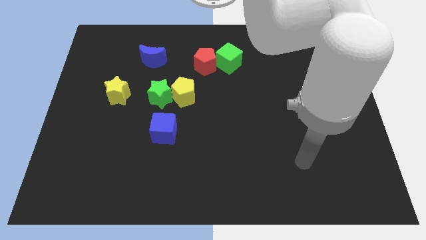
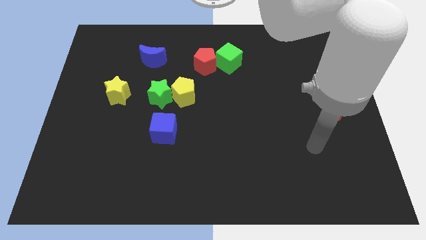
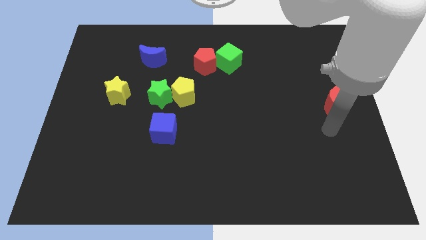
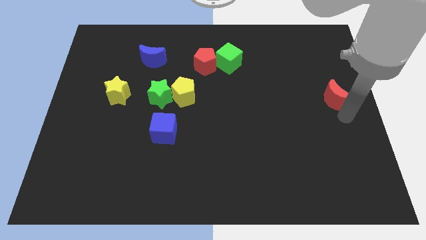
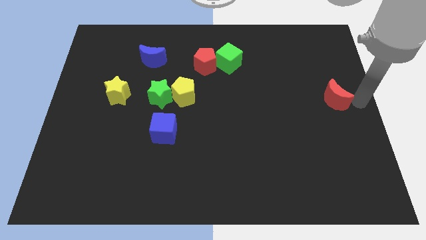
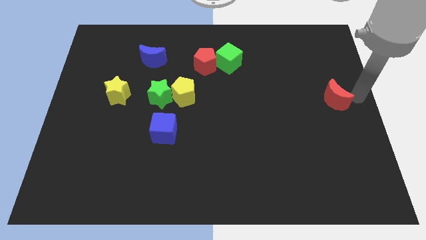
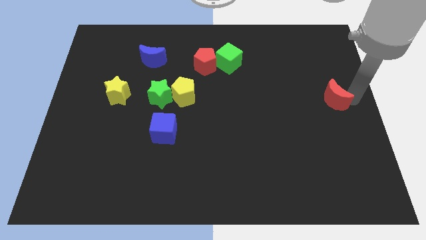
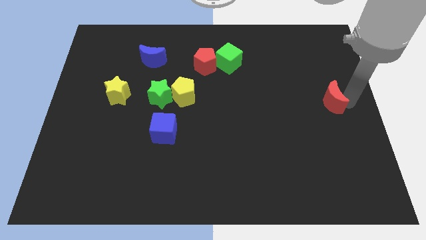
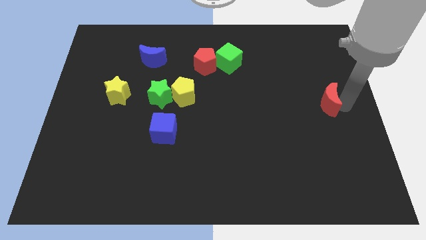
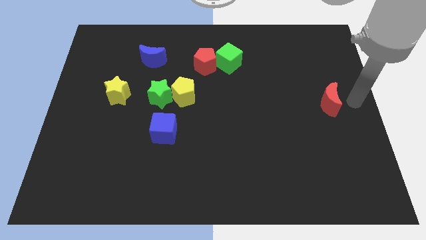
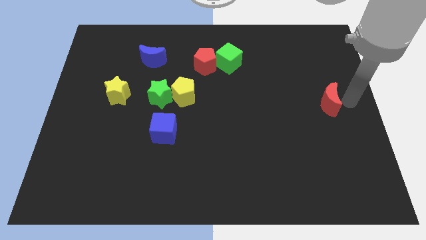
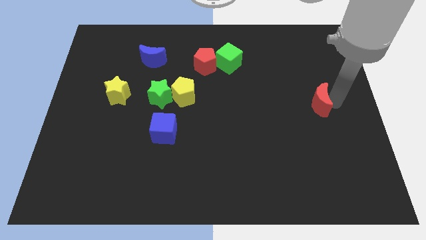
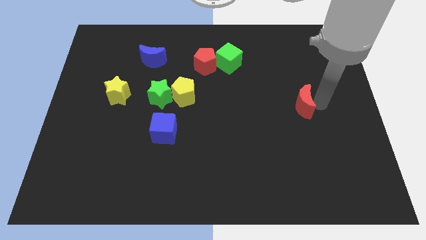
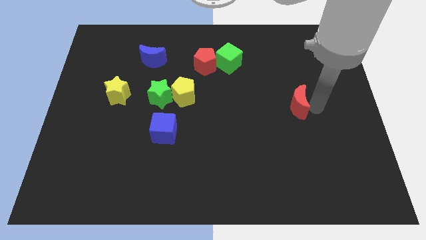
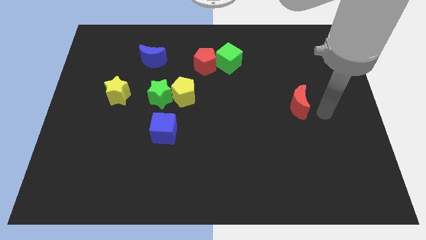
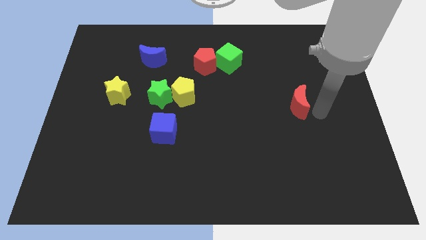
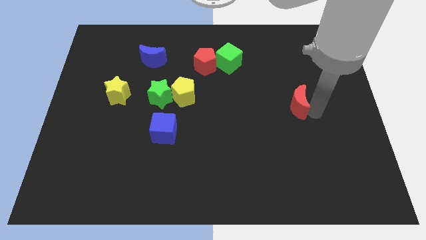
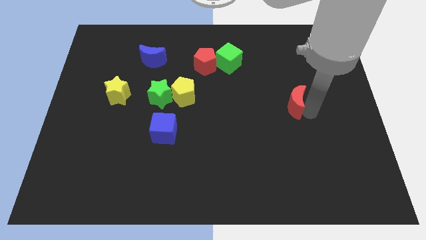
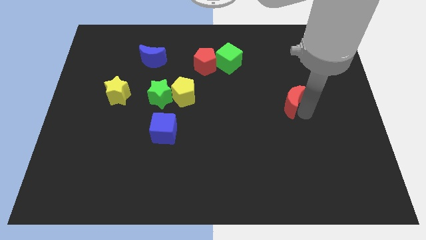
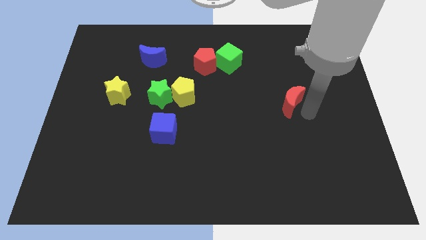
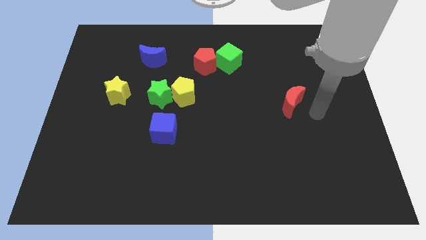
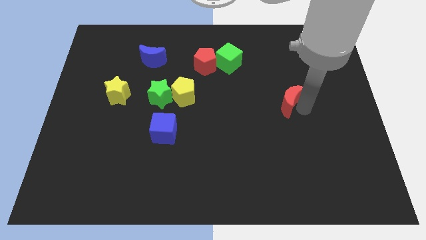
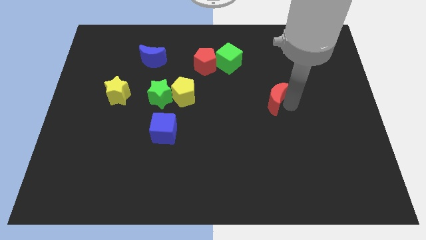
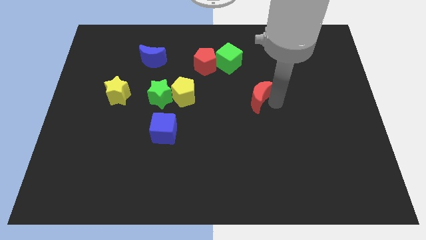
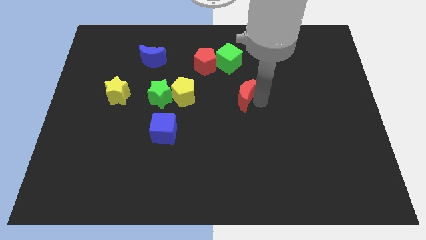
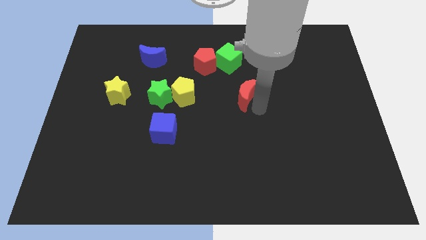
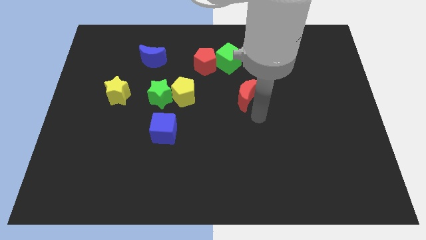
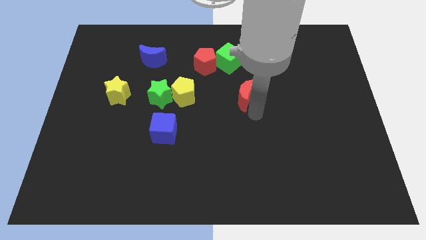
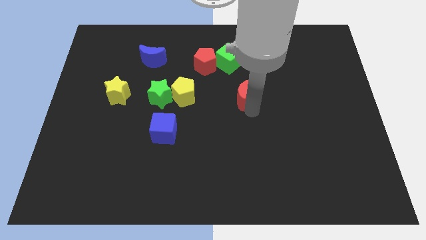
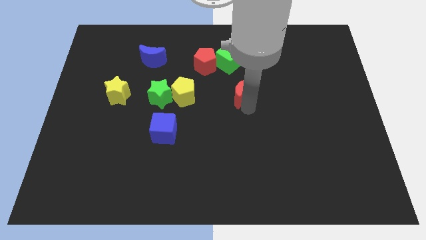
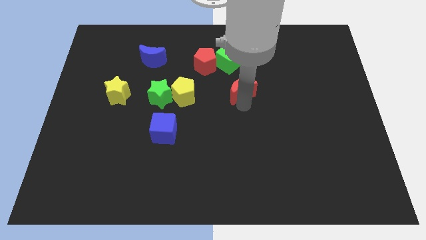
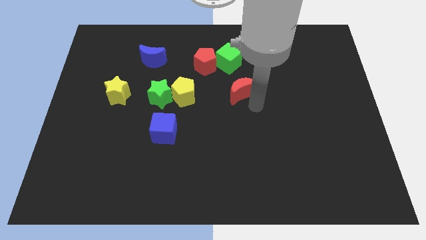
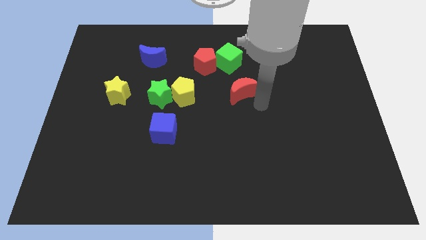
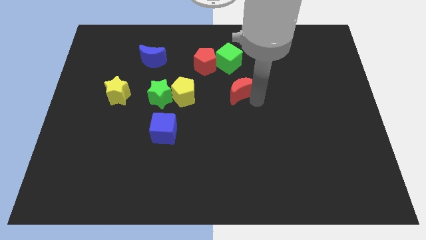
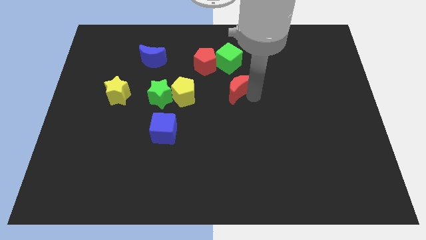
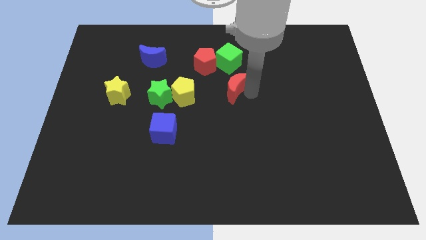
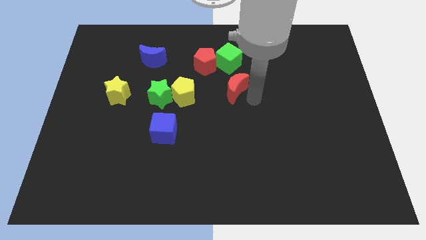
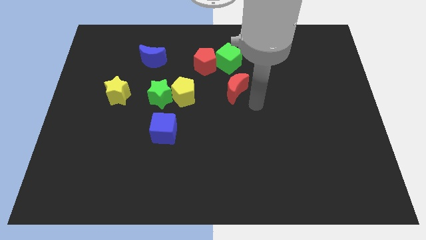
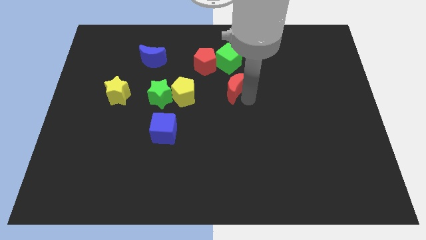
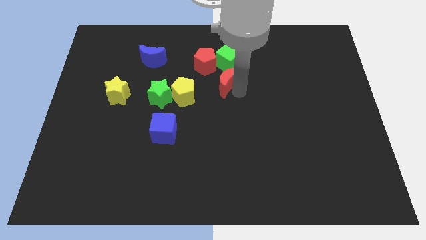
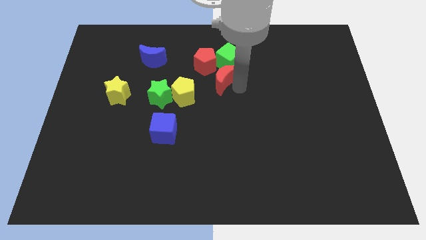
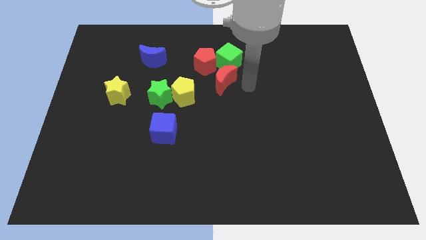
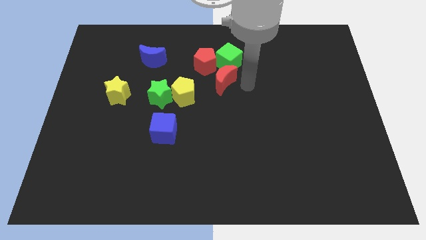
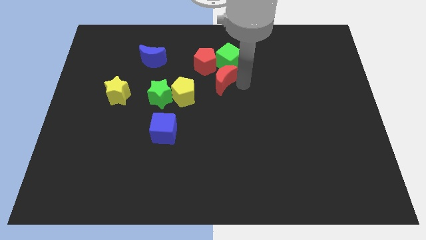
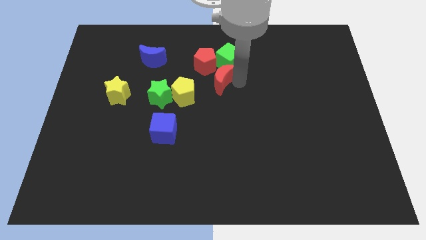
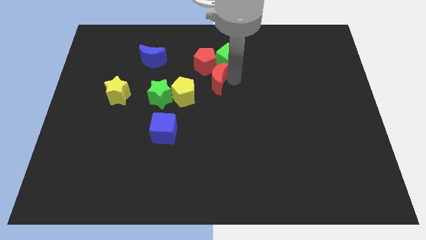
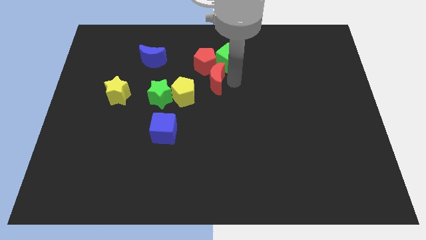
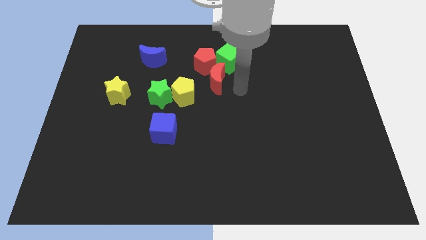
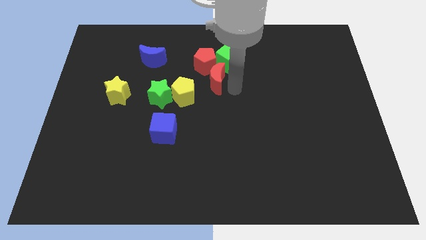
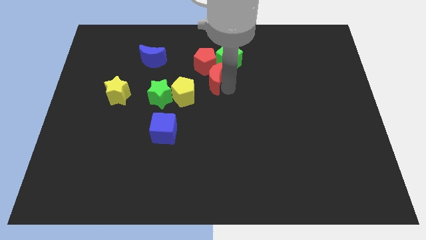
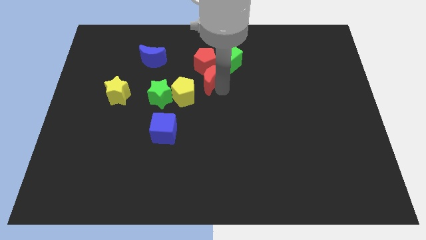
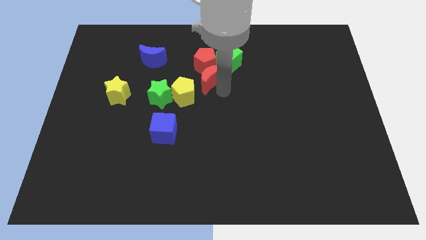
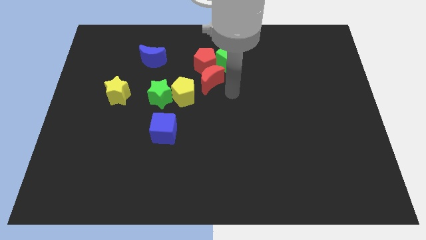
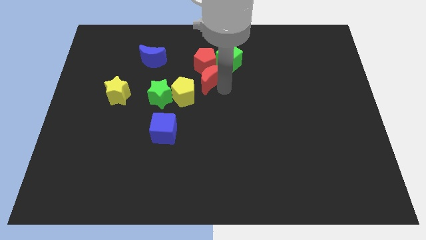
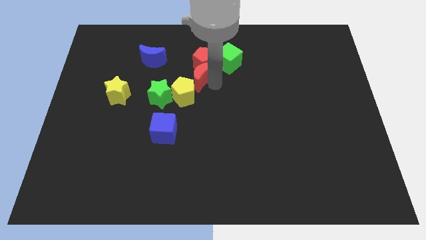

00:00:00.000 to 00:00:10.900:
slide the red moon to the top side of the yellow pentagon

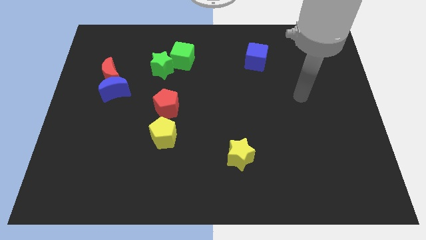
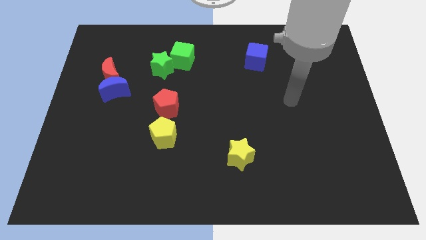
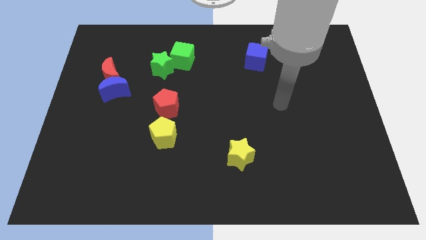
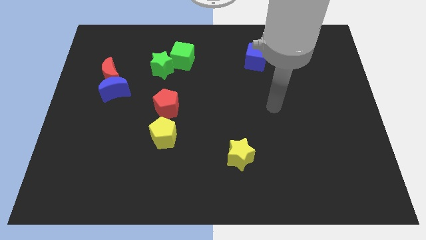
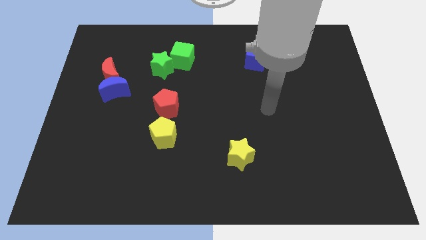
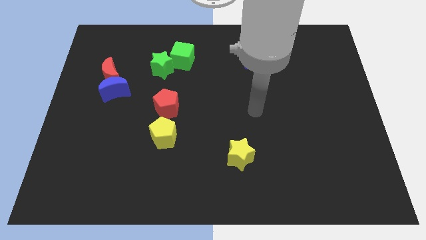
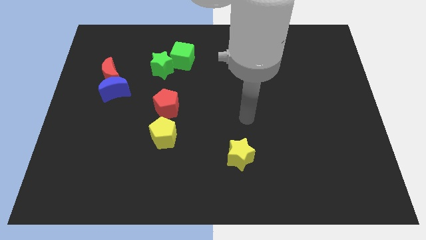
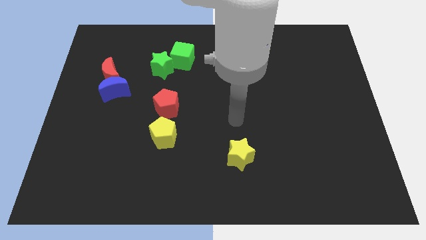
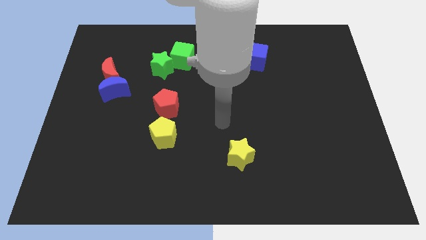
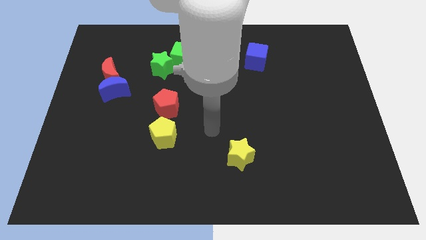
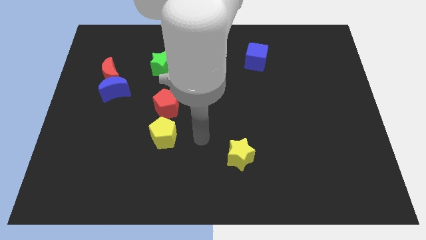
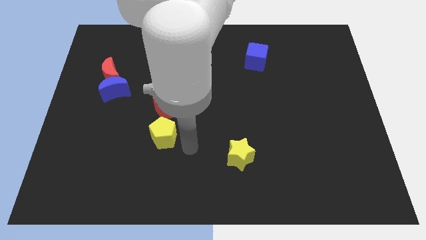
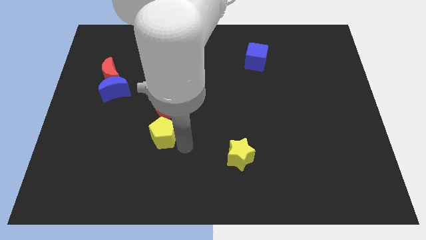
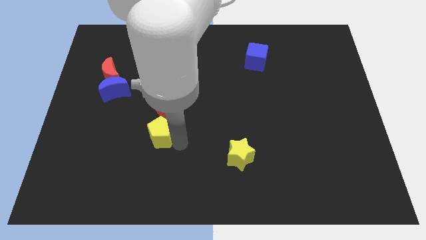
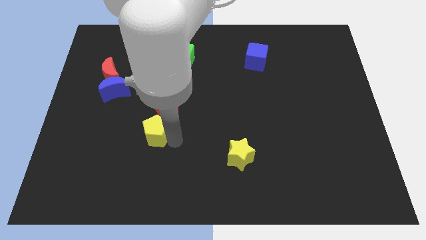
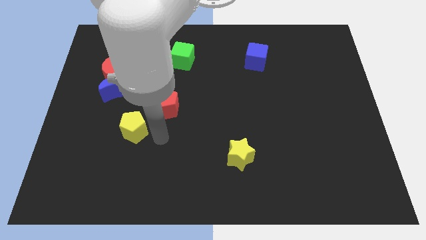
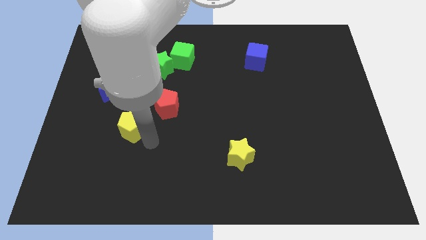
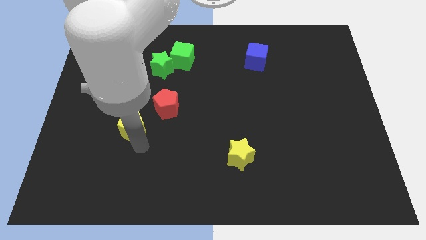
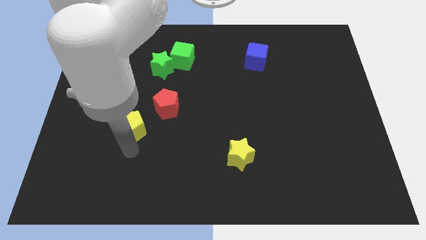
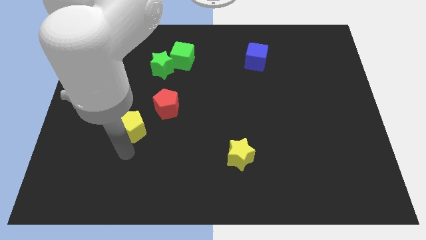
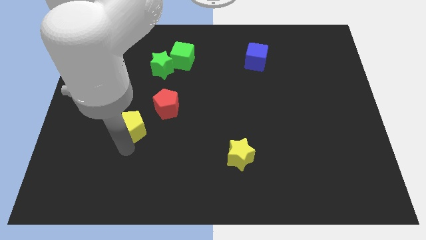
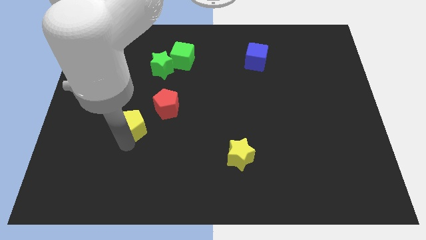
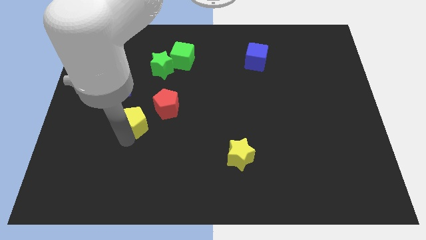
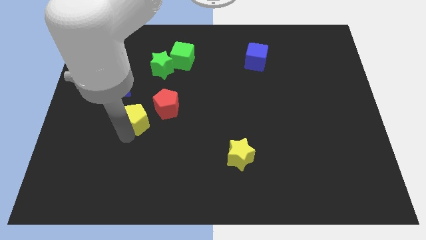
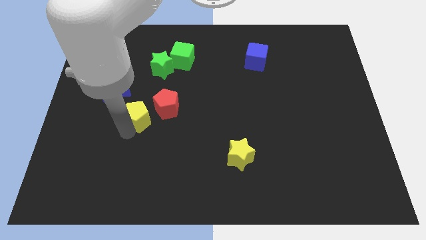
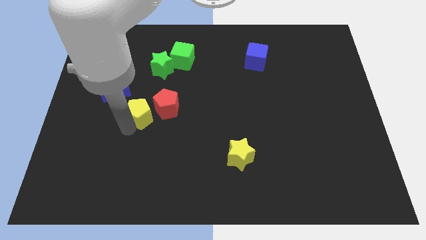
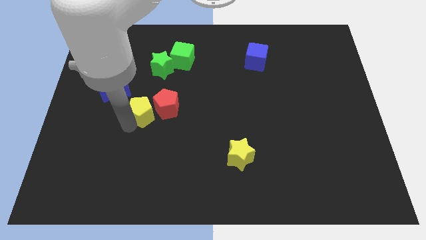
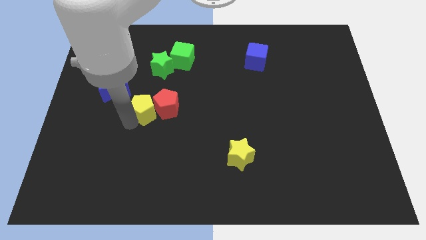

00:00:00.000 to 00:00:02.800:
slide the yellow pentagon to the top left of the red pentagon
